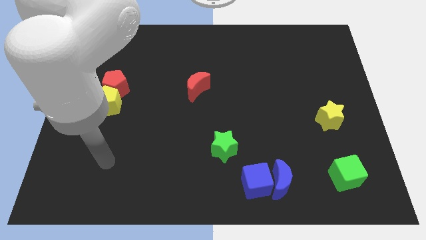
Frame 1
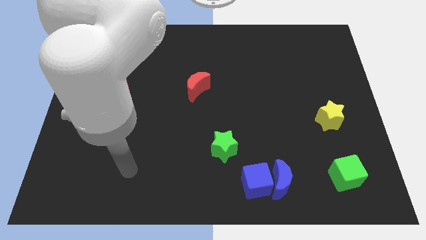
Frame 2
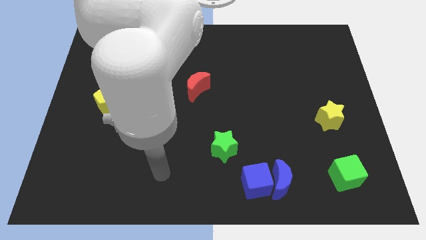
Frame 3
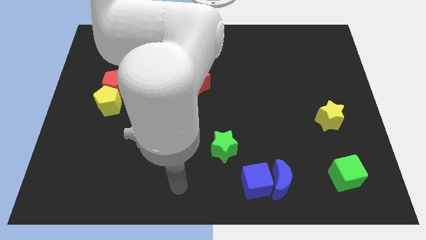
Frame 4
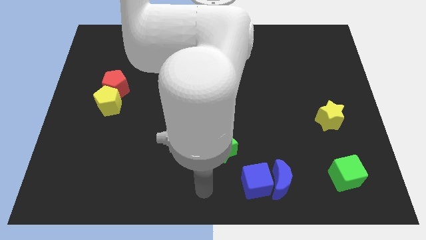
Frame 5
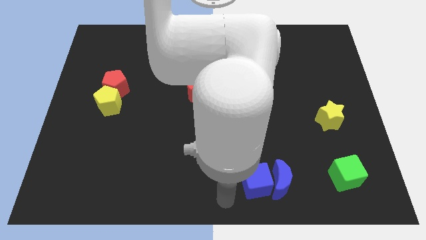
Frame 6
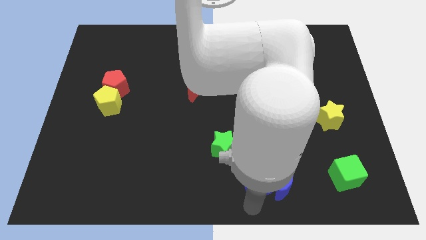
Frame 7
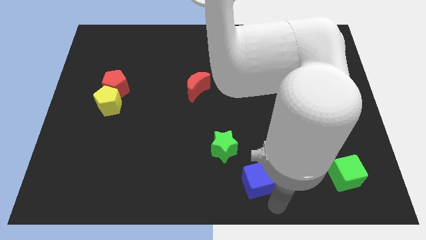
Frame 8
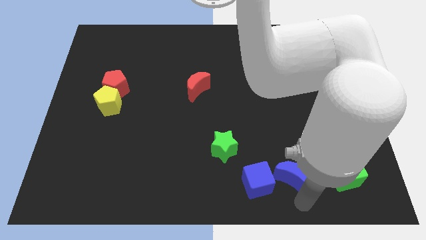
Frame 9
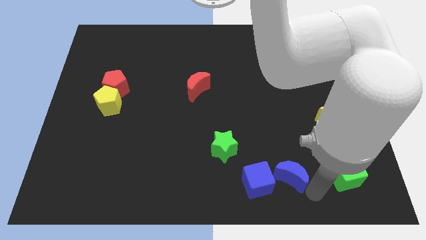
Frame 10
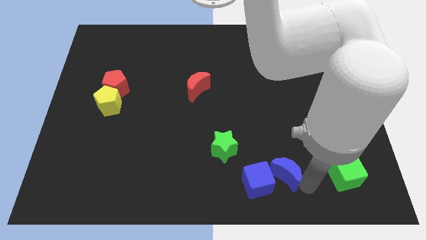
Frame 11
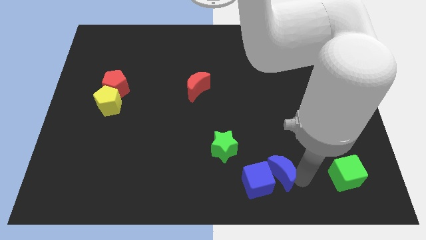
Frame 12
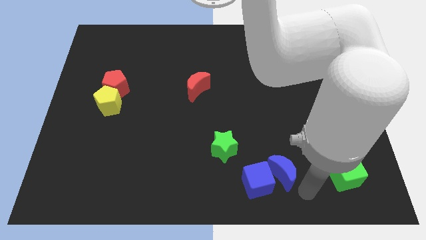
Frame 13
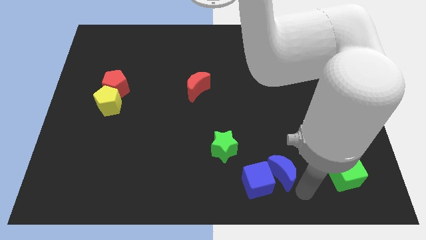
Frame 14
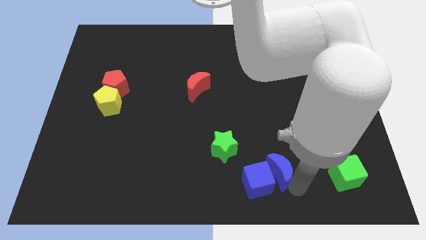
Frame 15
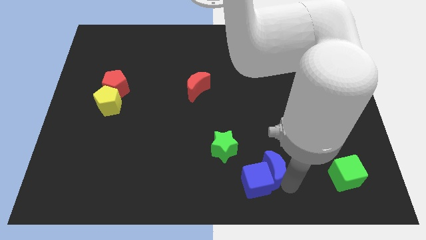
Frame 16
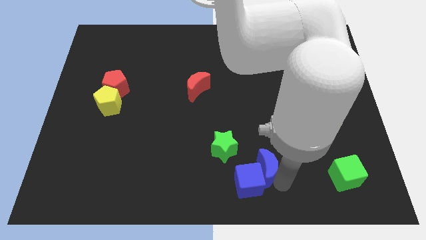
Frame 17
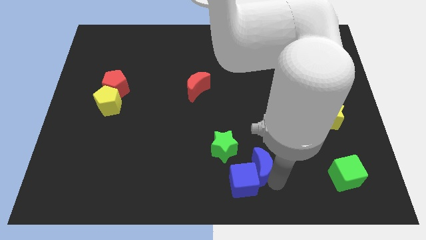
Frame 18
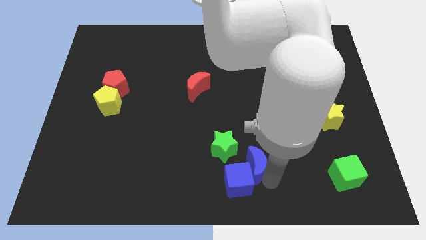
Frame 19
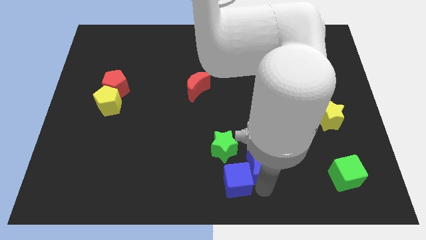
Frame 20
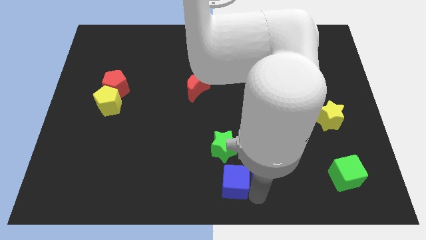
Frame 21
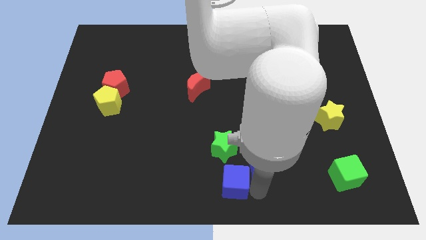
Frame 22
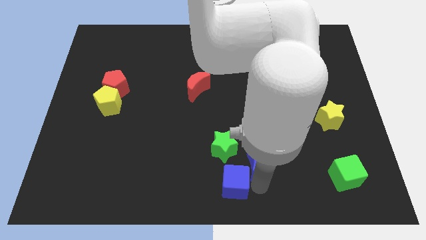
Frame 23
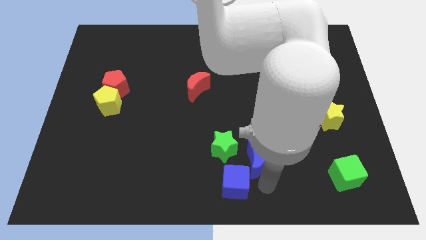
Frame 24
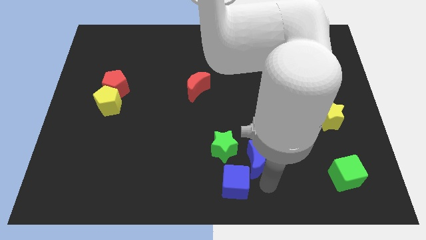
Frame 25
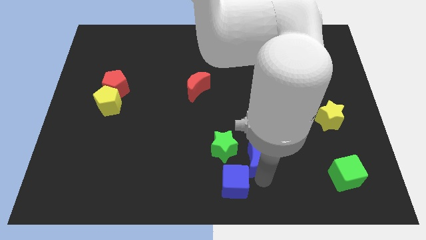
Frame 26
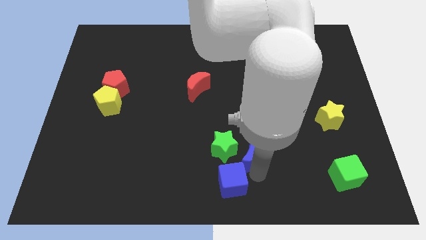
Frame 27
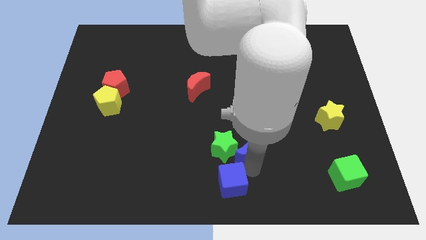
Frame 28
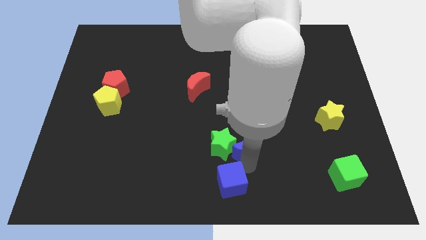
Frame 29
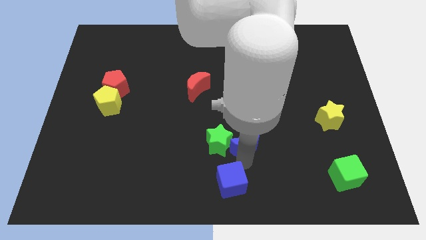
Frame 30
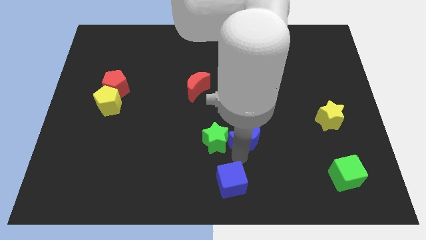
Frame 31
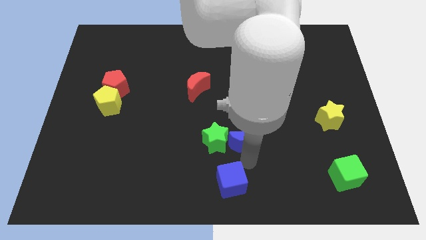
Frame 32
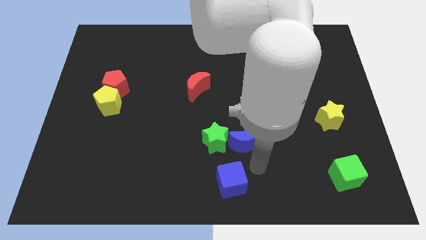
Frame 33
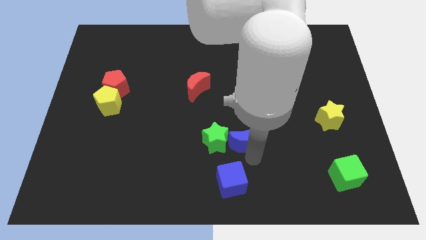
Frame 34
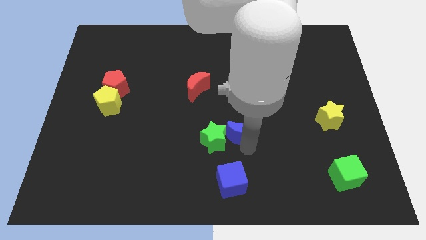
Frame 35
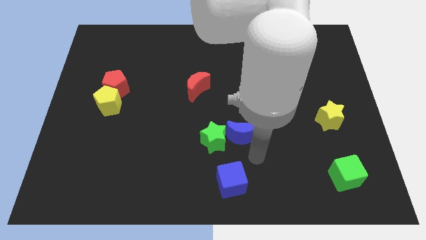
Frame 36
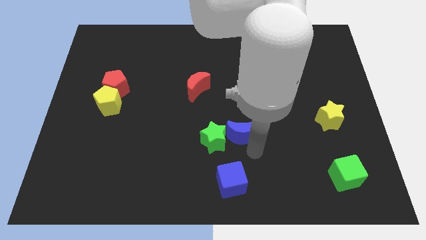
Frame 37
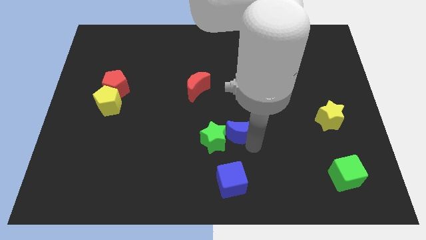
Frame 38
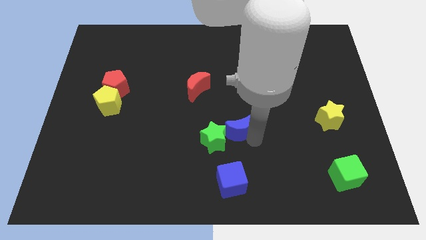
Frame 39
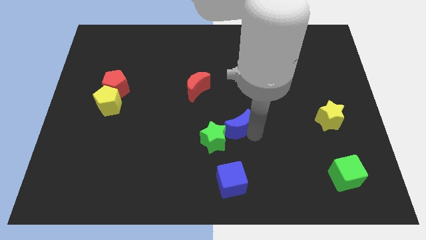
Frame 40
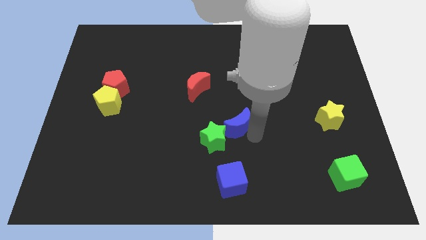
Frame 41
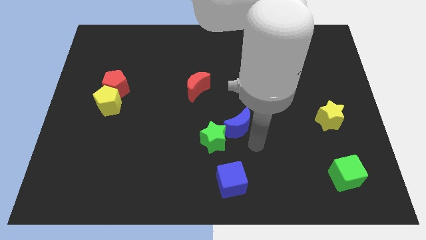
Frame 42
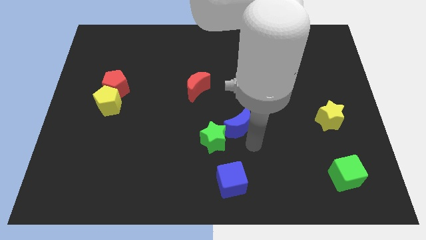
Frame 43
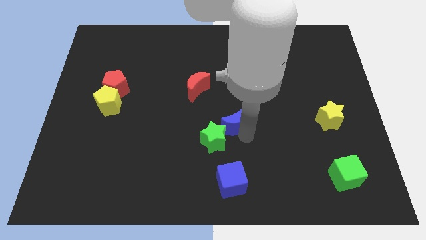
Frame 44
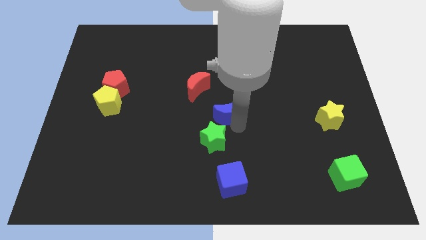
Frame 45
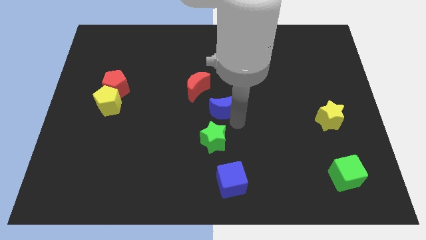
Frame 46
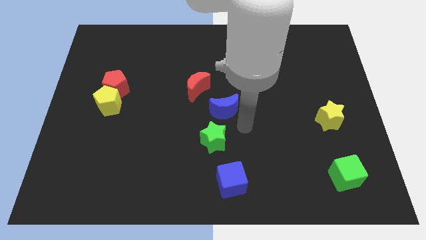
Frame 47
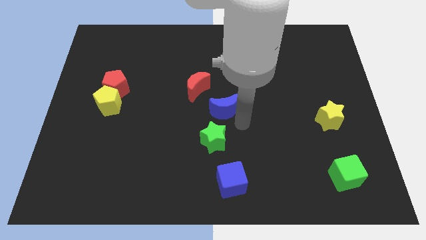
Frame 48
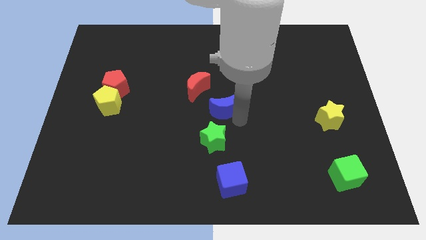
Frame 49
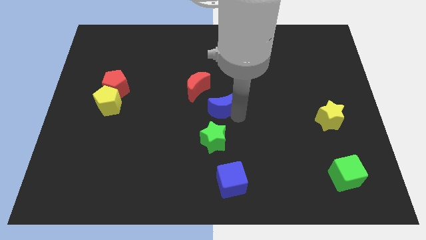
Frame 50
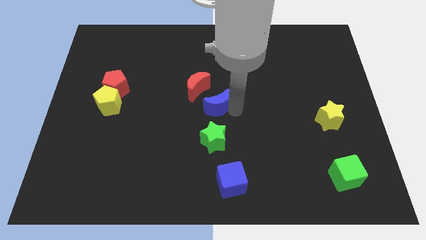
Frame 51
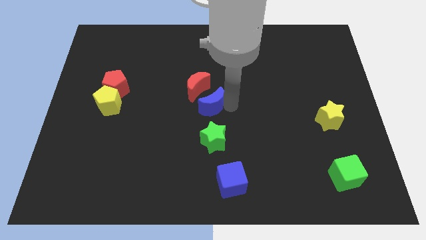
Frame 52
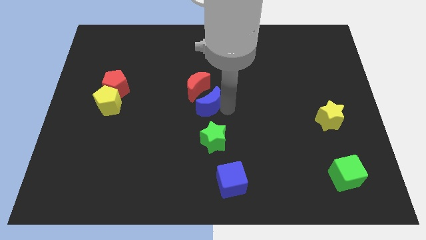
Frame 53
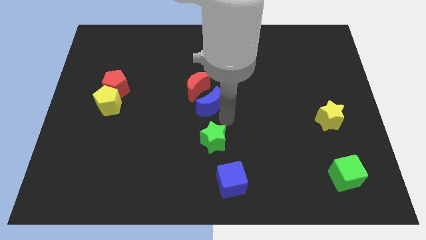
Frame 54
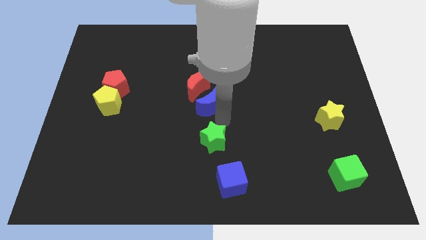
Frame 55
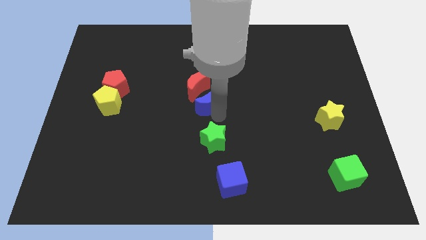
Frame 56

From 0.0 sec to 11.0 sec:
slide the blue moon next to the red moon

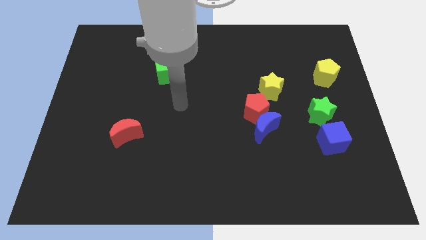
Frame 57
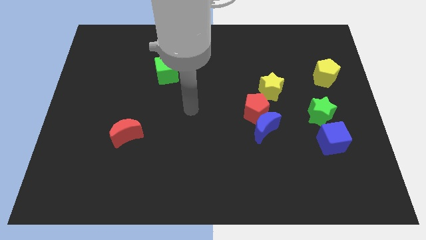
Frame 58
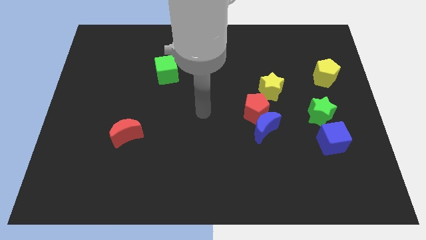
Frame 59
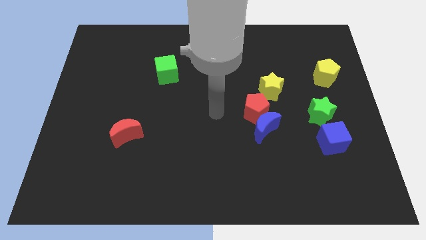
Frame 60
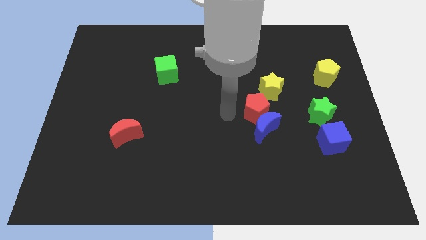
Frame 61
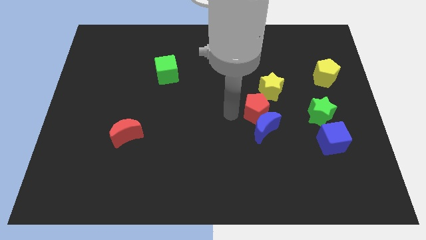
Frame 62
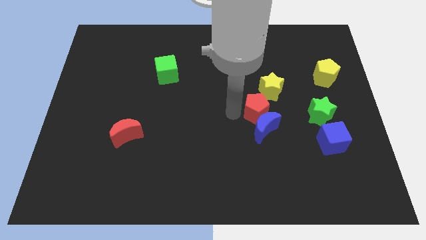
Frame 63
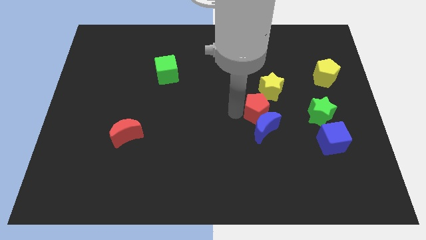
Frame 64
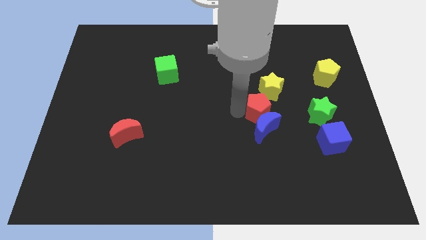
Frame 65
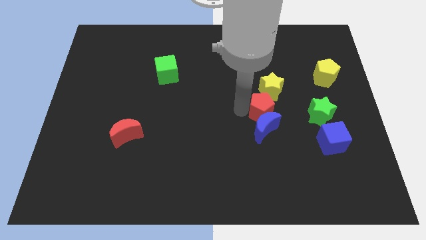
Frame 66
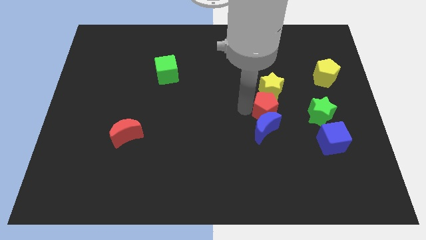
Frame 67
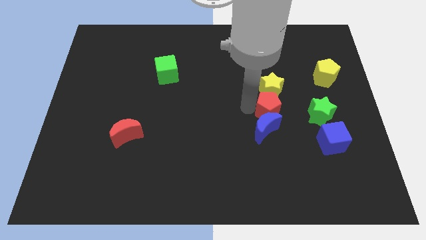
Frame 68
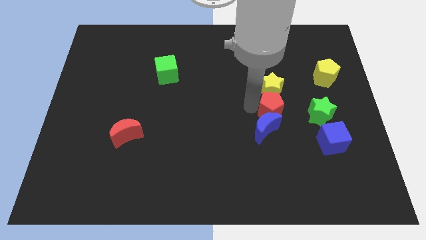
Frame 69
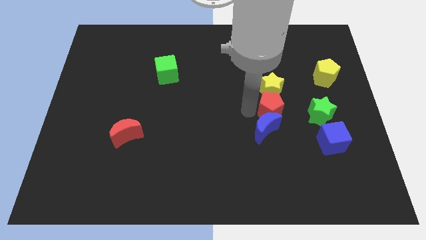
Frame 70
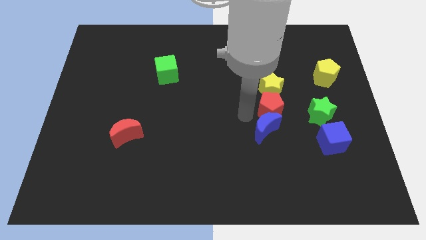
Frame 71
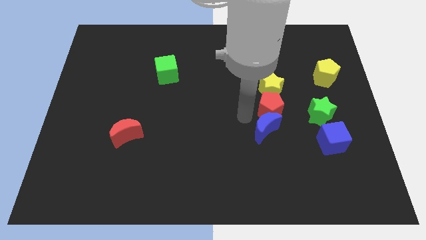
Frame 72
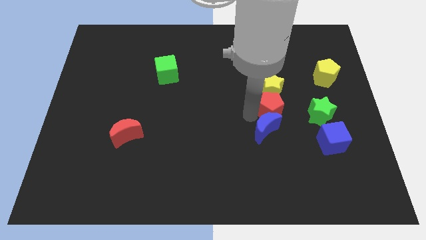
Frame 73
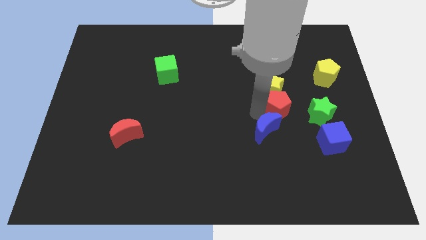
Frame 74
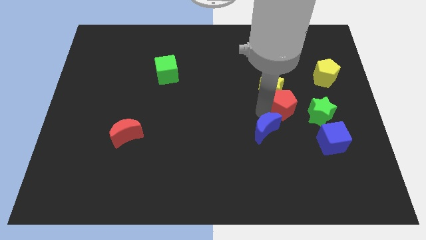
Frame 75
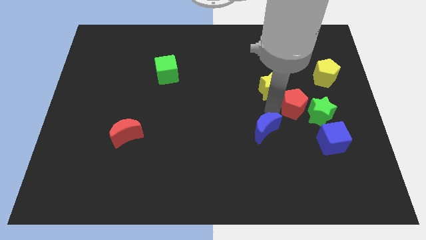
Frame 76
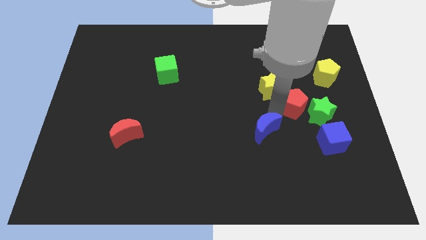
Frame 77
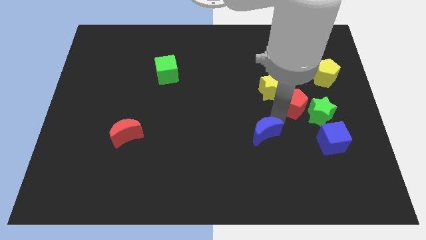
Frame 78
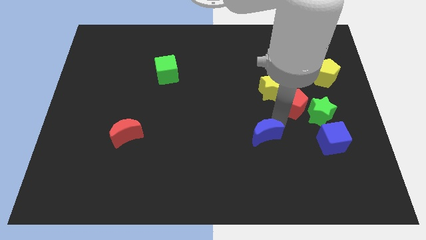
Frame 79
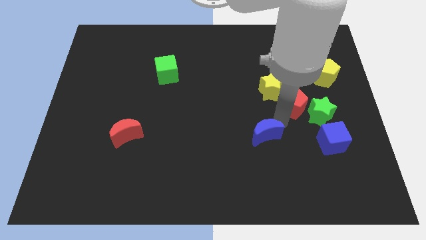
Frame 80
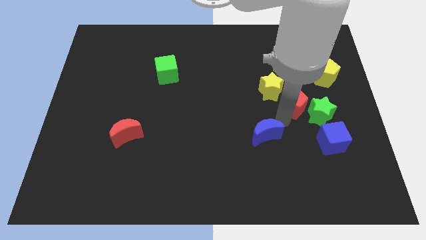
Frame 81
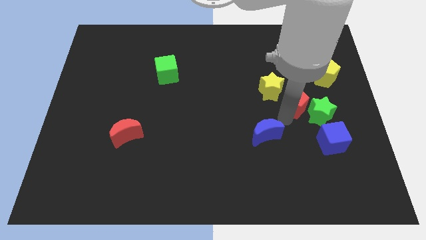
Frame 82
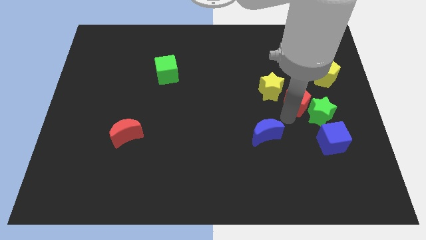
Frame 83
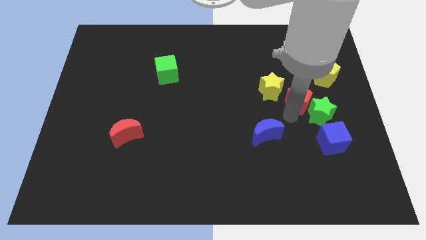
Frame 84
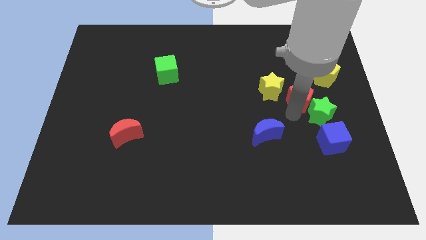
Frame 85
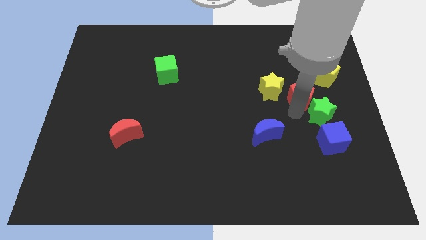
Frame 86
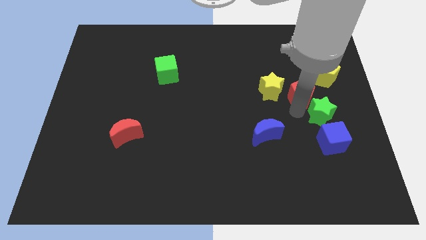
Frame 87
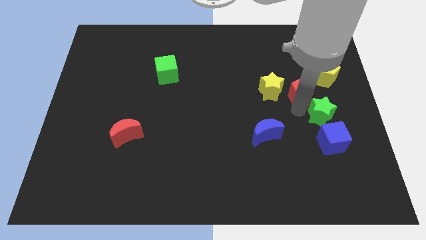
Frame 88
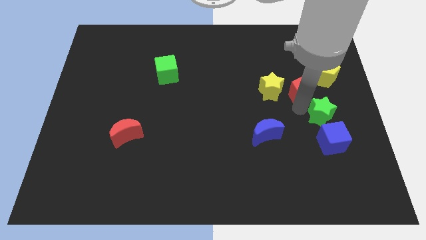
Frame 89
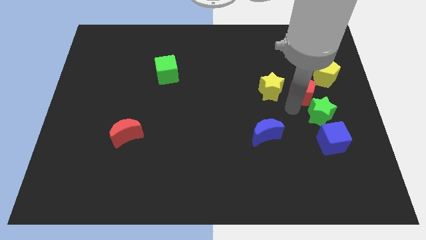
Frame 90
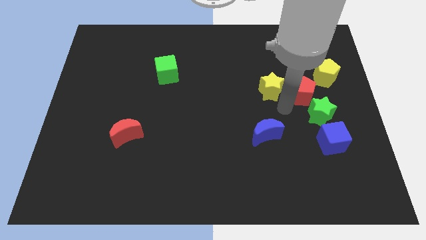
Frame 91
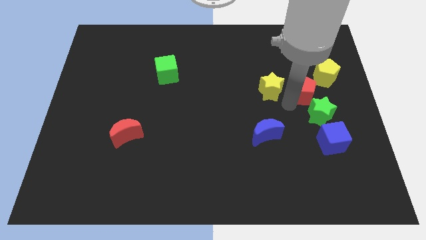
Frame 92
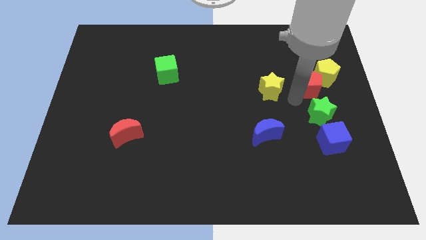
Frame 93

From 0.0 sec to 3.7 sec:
push the red pentagon next to the yellow pentagon
